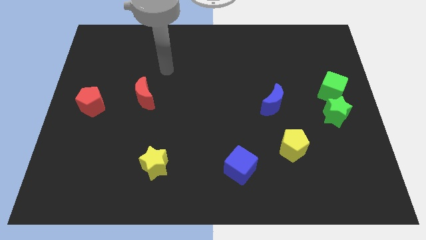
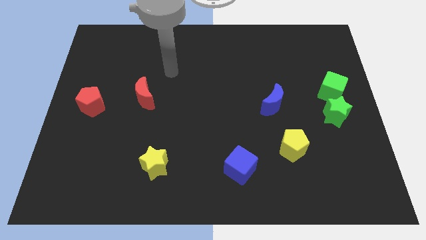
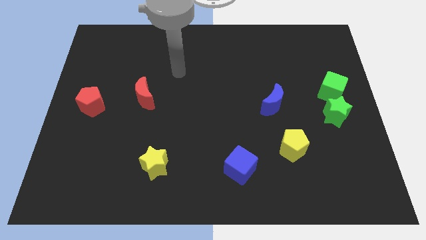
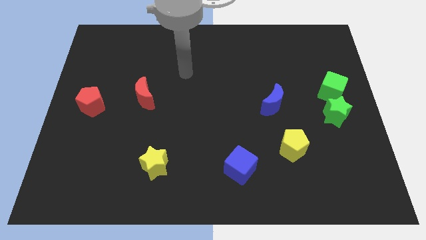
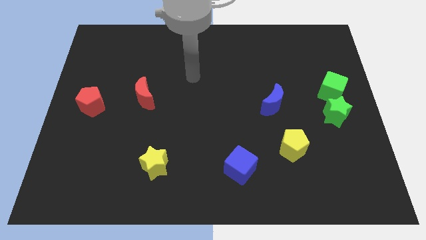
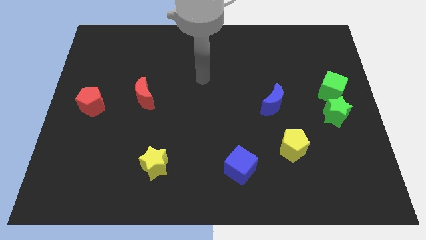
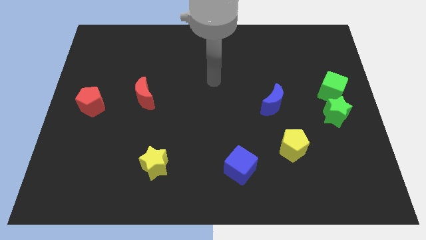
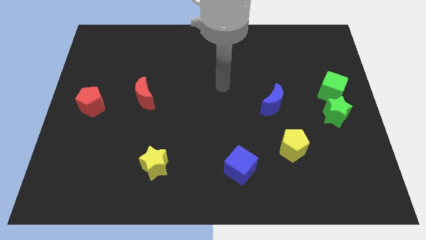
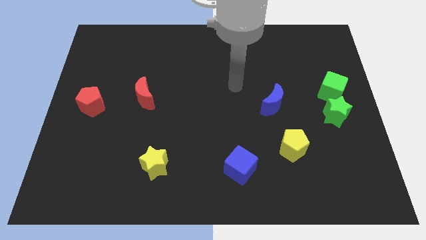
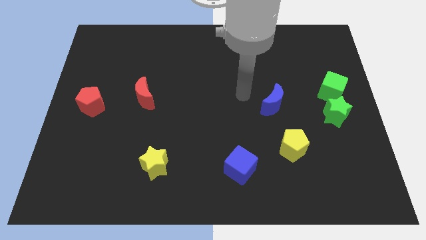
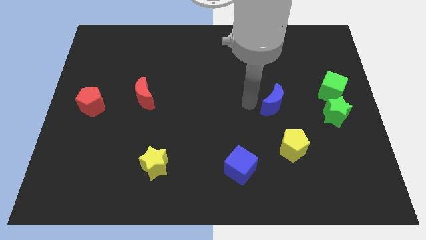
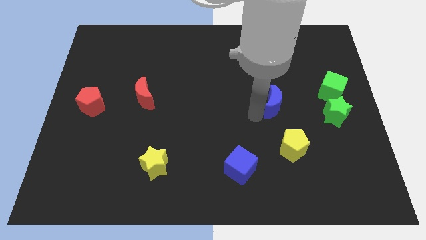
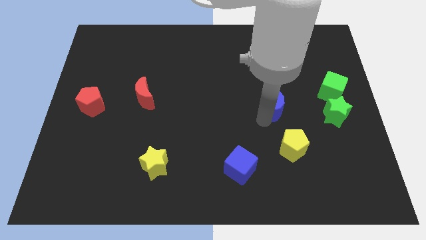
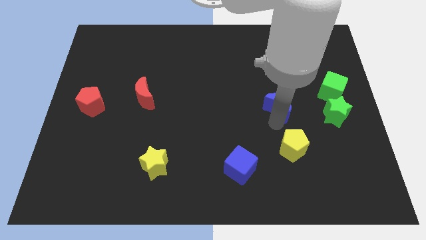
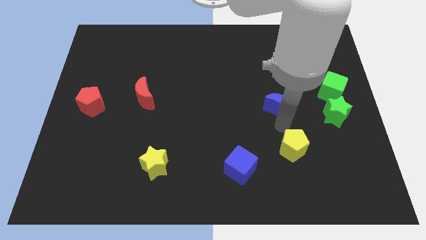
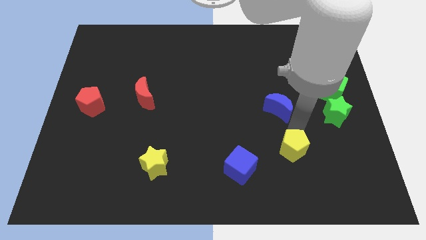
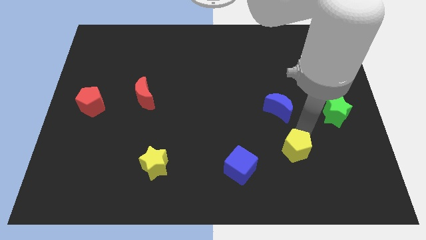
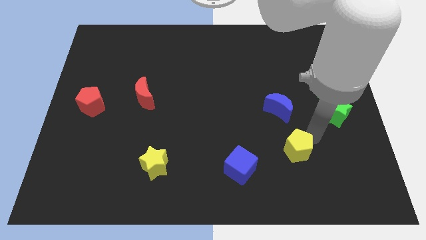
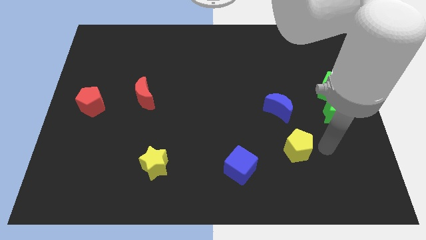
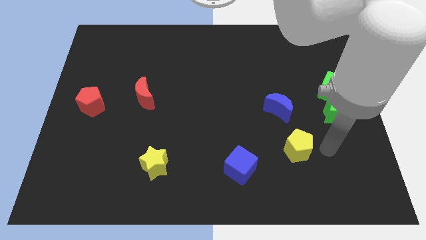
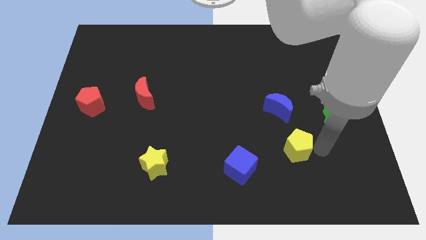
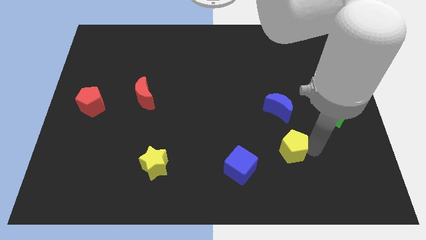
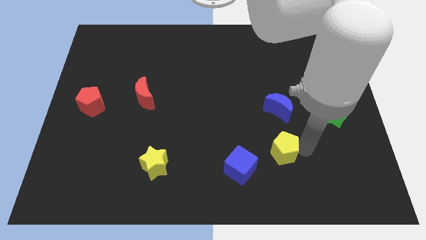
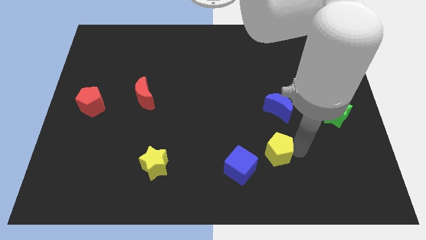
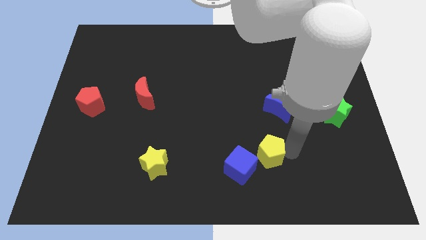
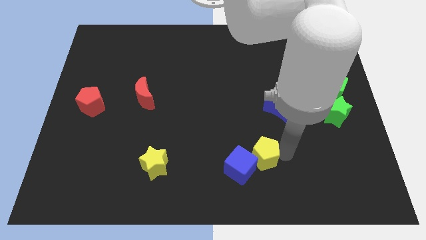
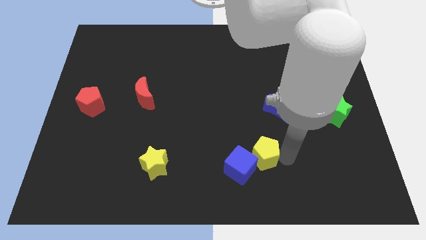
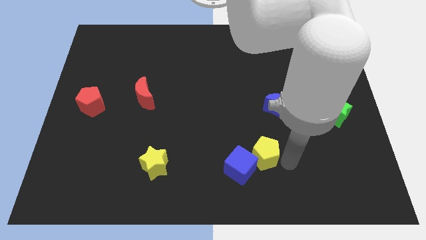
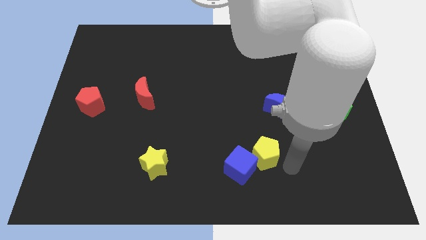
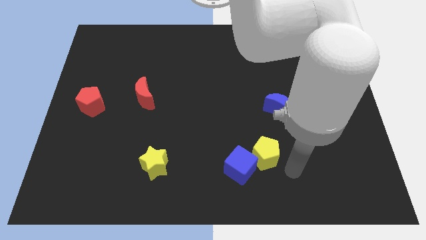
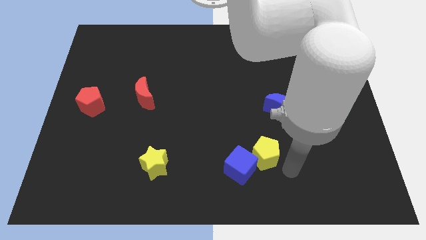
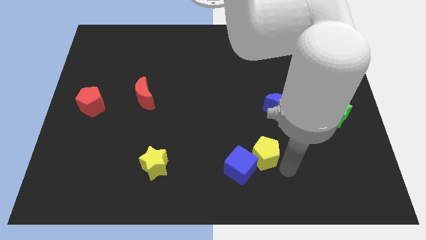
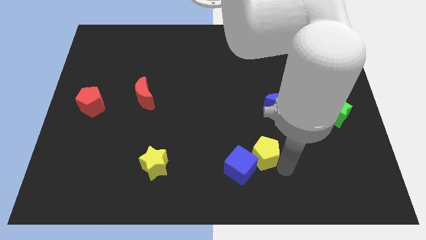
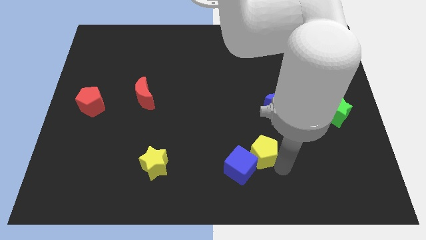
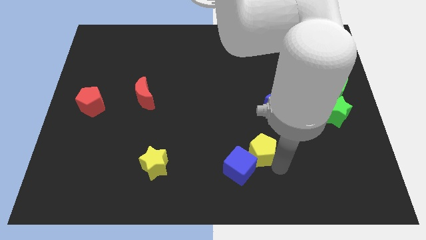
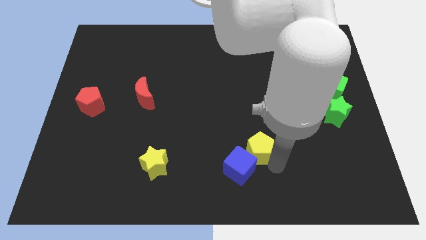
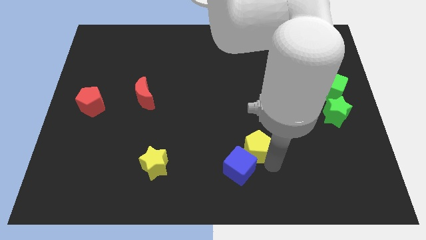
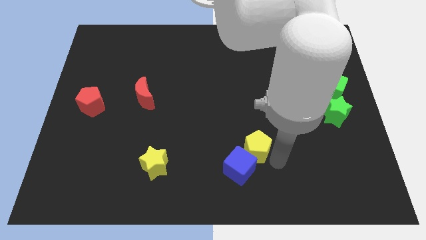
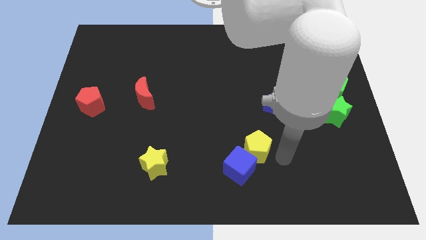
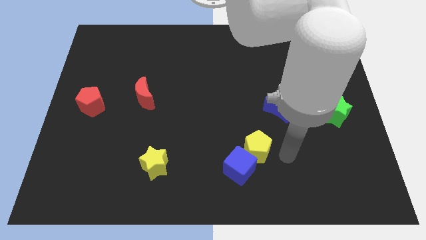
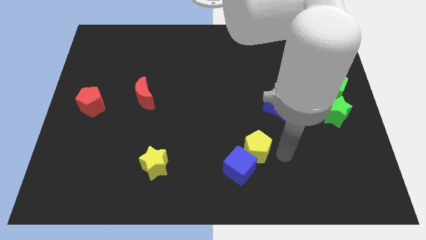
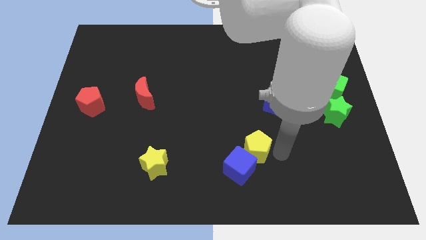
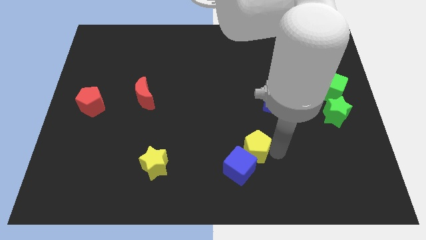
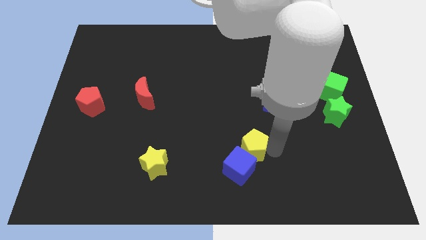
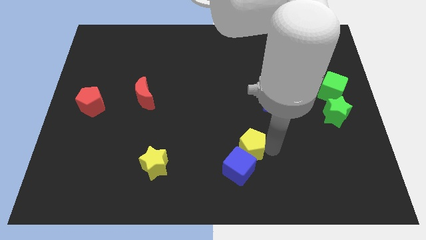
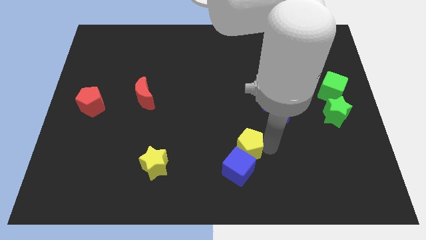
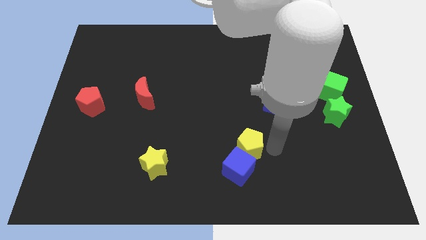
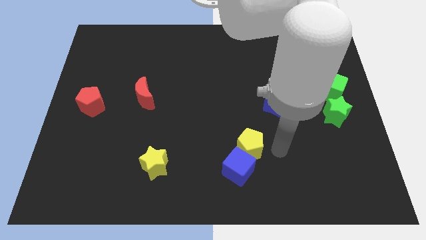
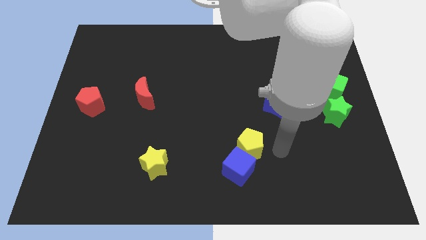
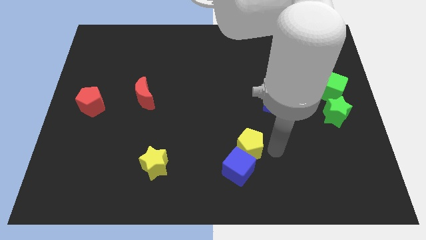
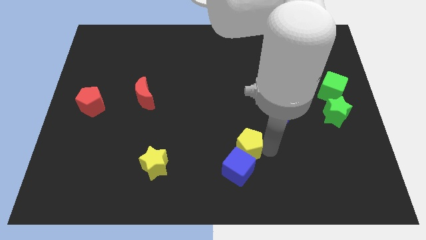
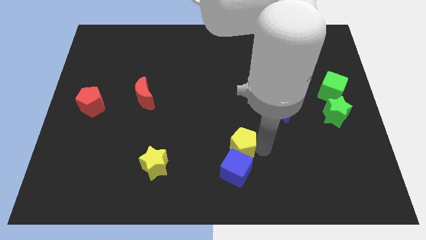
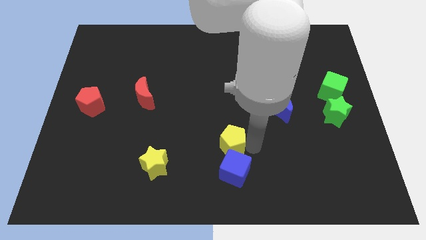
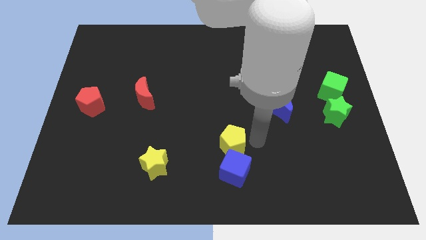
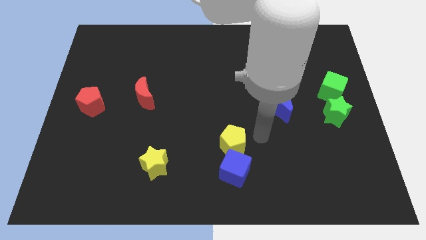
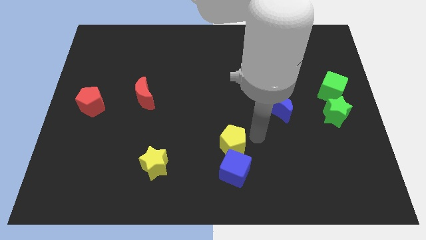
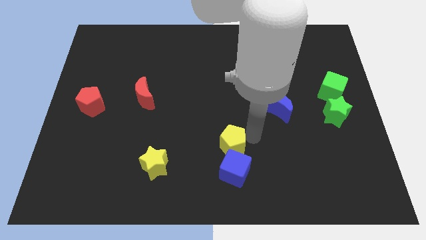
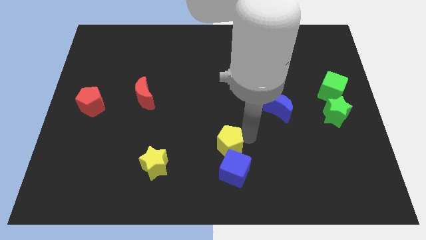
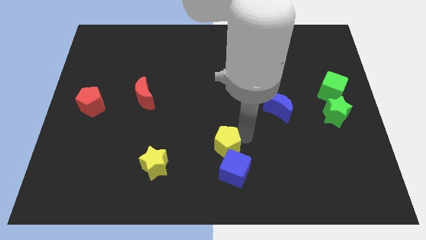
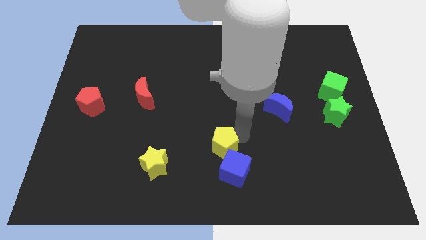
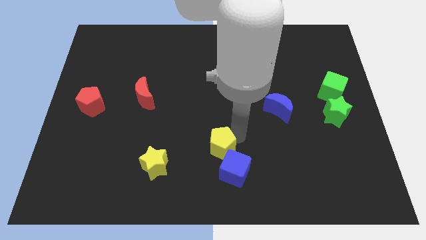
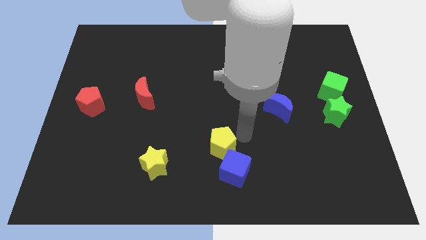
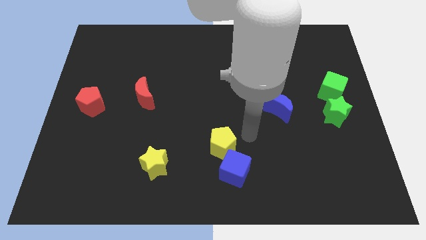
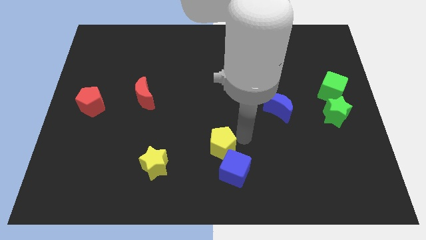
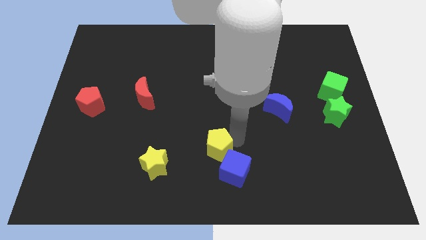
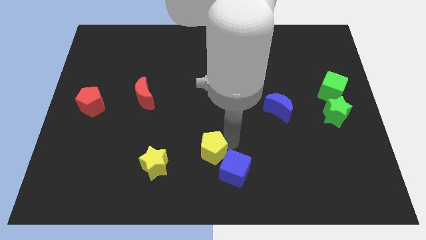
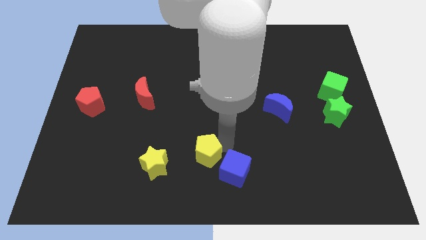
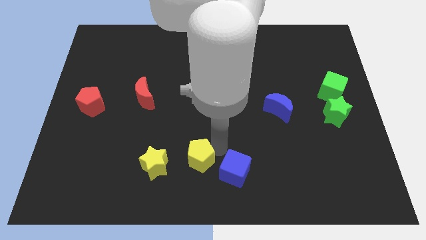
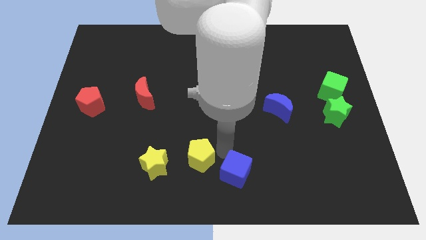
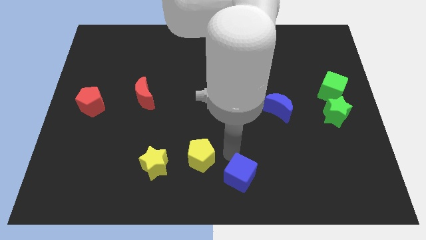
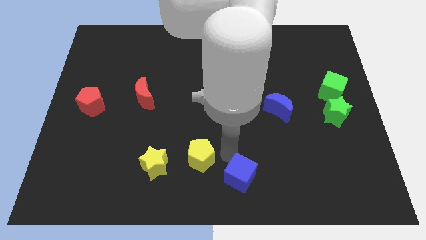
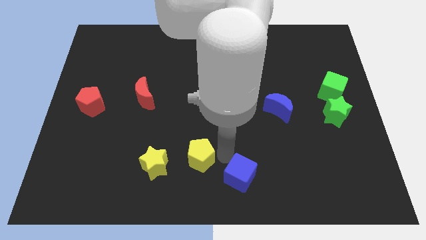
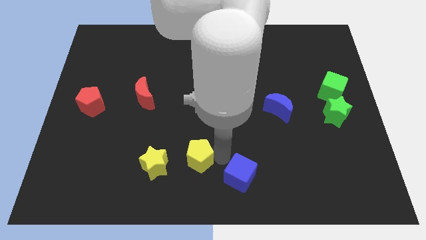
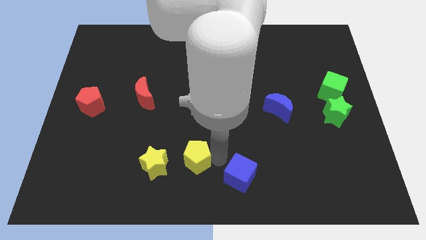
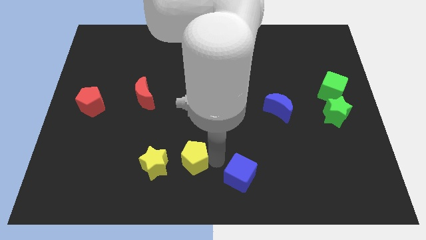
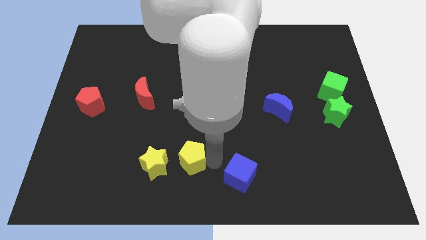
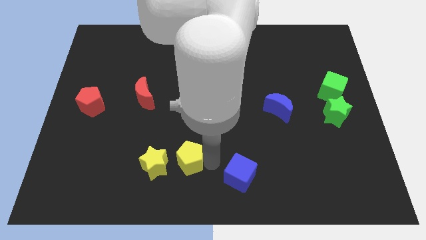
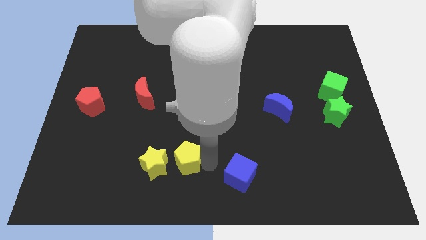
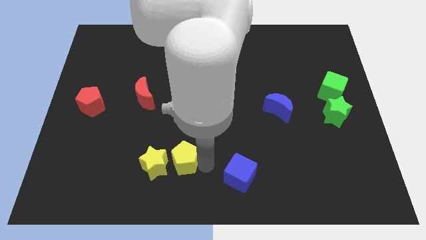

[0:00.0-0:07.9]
push the yellow pentagon close to the yellow star
